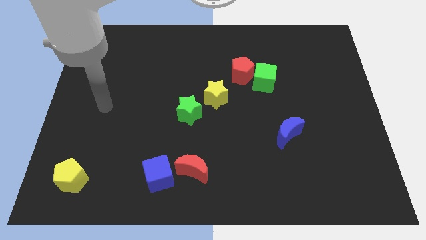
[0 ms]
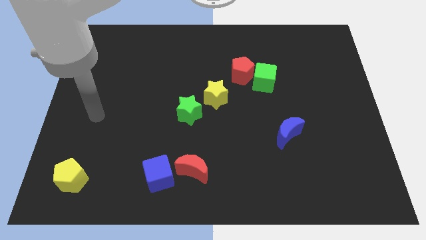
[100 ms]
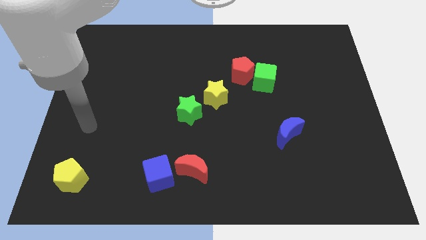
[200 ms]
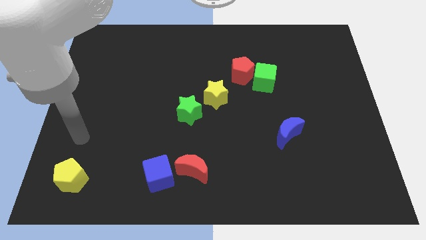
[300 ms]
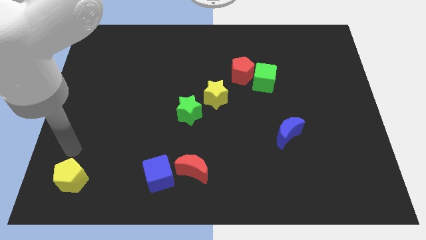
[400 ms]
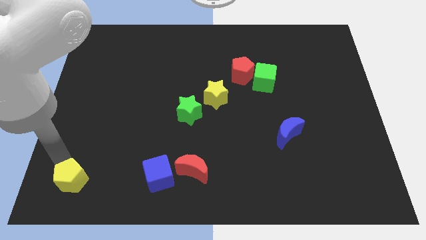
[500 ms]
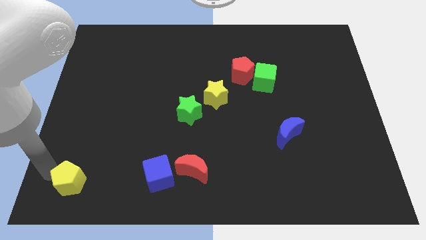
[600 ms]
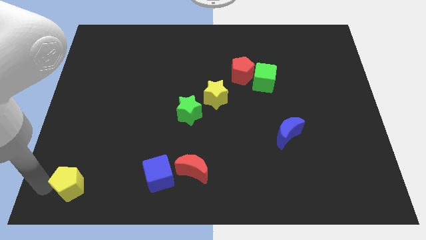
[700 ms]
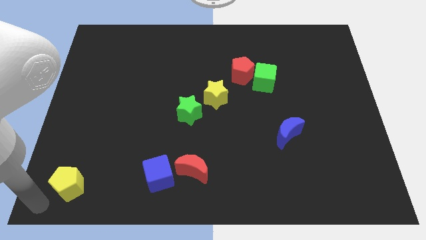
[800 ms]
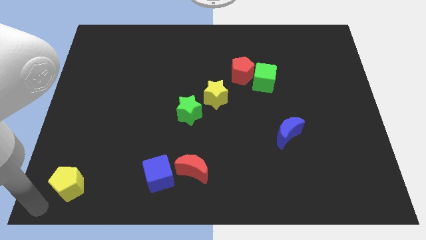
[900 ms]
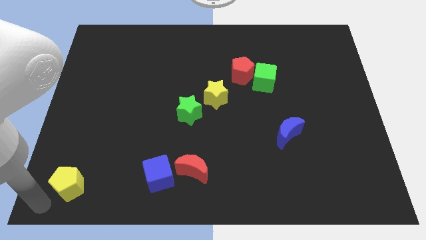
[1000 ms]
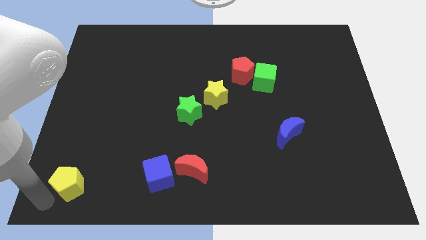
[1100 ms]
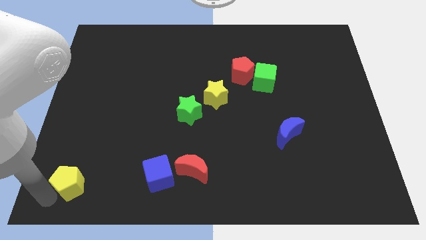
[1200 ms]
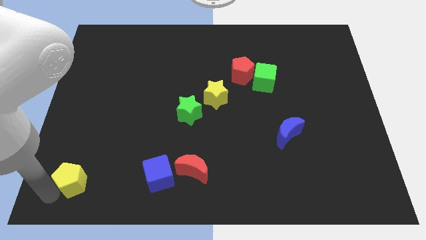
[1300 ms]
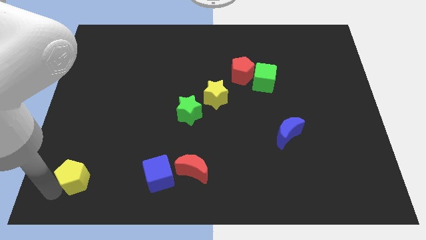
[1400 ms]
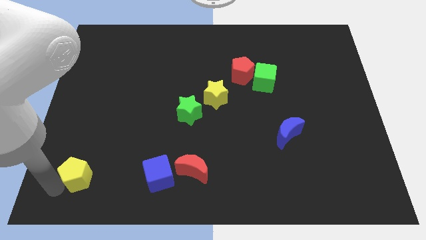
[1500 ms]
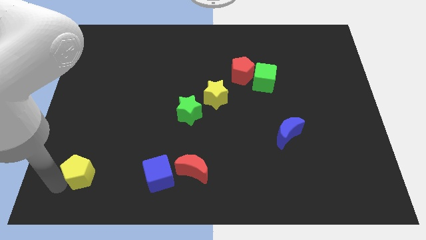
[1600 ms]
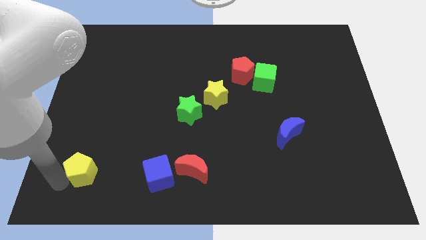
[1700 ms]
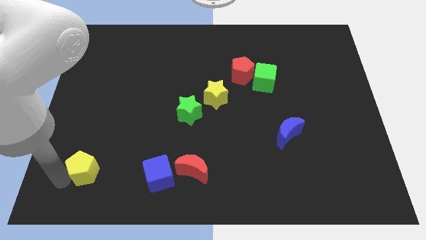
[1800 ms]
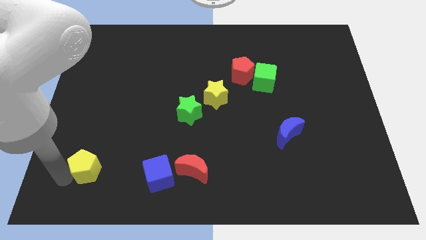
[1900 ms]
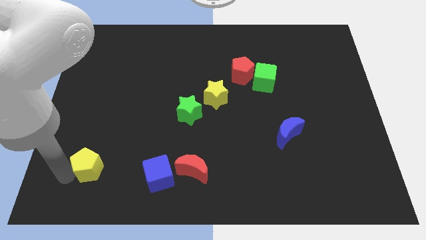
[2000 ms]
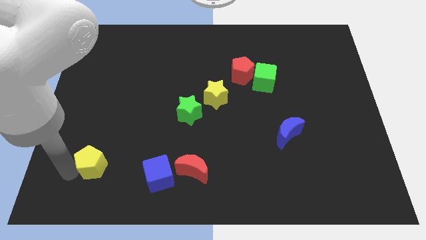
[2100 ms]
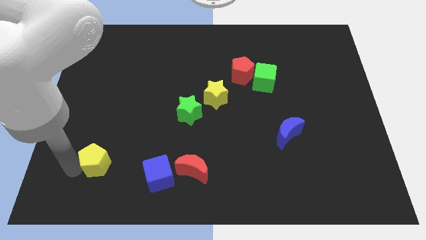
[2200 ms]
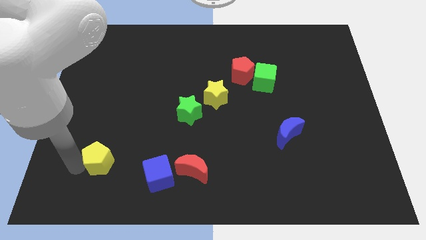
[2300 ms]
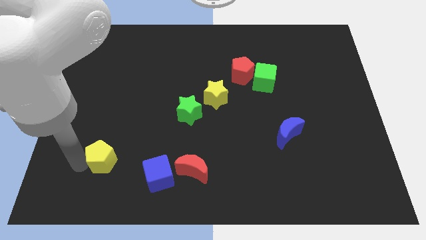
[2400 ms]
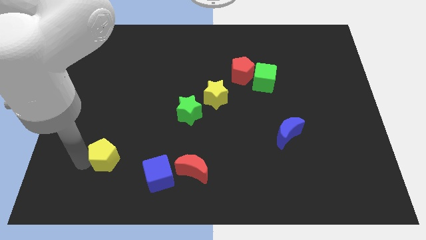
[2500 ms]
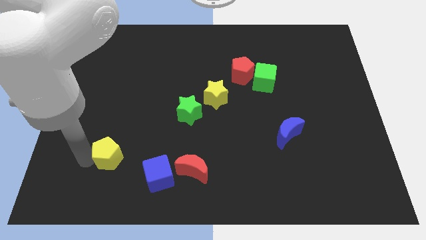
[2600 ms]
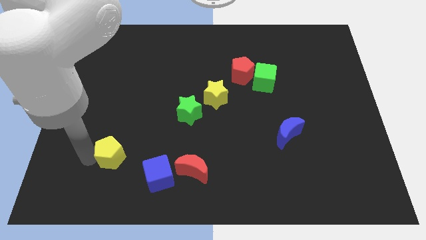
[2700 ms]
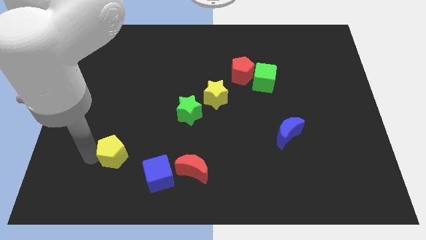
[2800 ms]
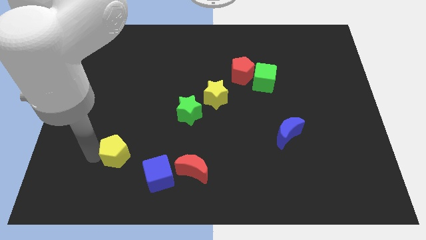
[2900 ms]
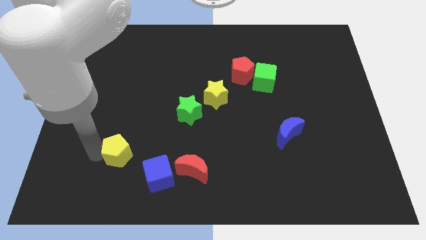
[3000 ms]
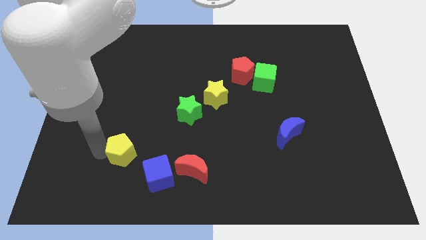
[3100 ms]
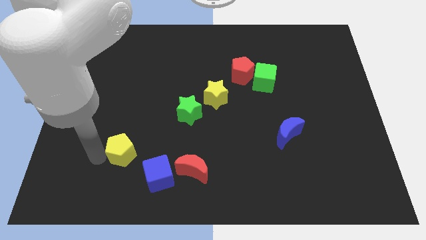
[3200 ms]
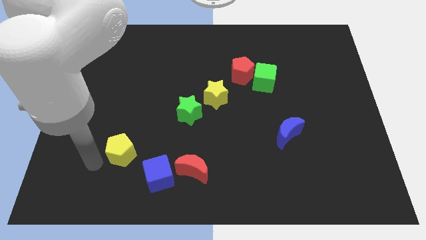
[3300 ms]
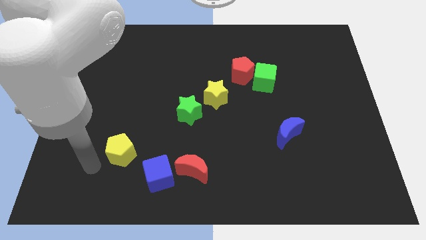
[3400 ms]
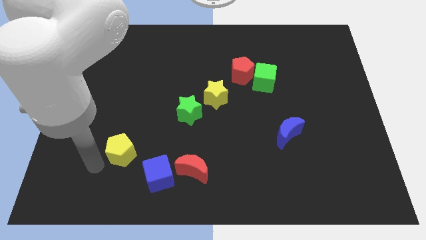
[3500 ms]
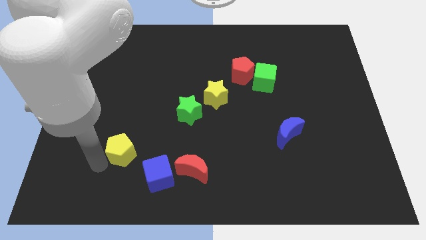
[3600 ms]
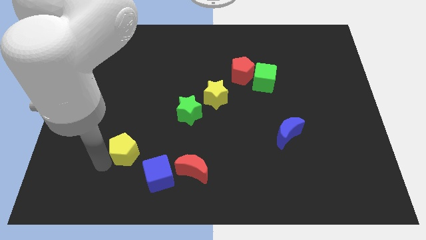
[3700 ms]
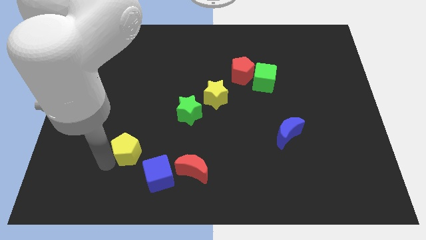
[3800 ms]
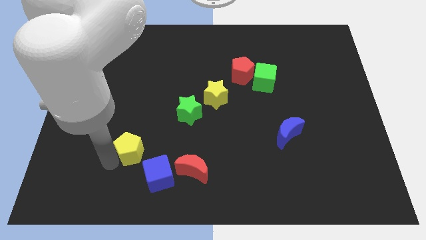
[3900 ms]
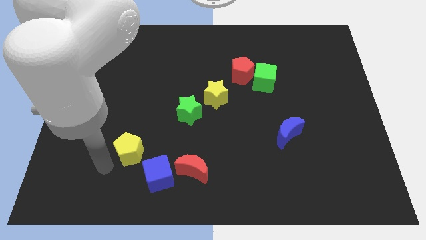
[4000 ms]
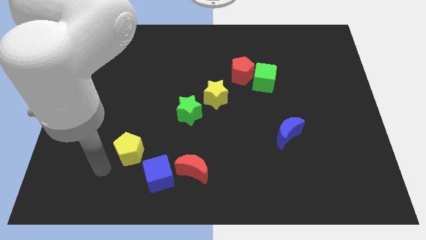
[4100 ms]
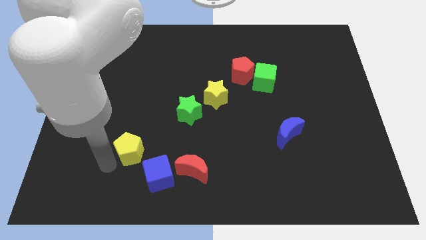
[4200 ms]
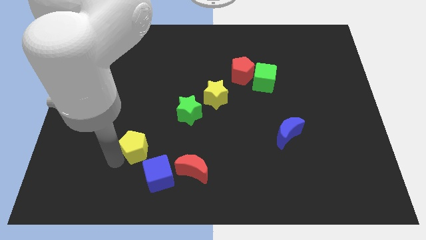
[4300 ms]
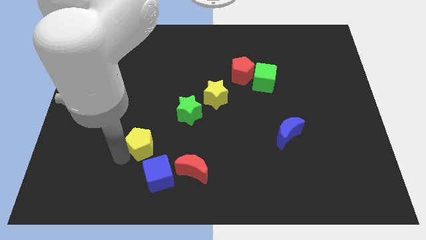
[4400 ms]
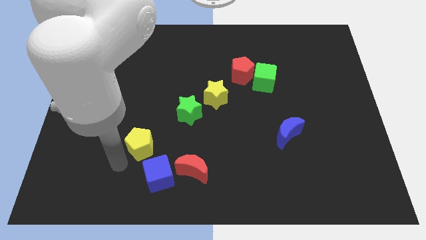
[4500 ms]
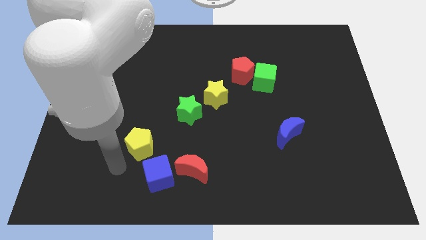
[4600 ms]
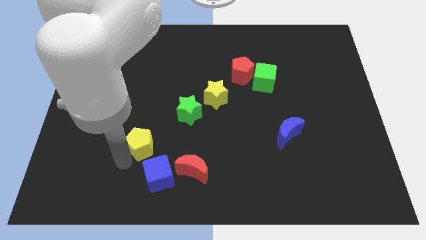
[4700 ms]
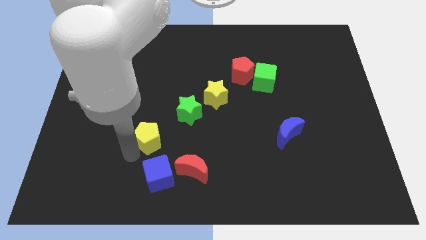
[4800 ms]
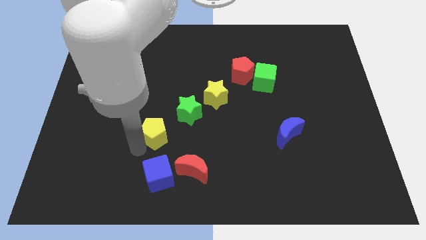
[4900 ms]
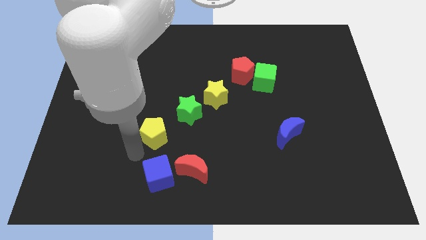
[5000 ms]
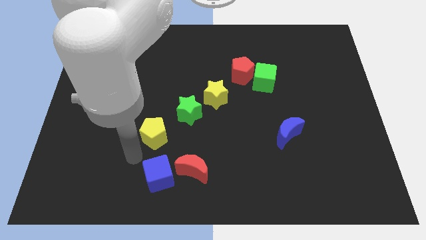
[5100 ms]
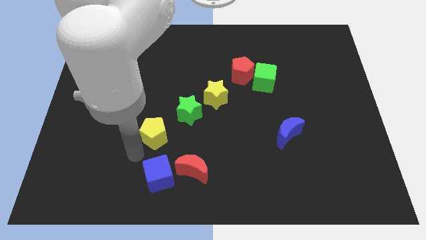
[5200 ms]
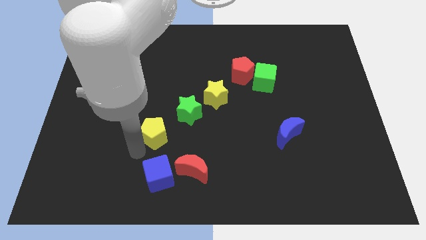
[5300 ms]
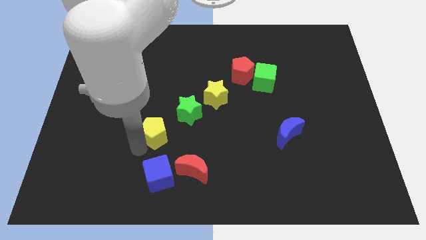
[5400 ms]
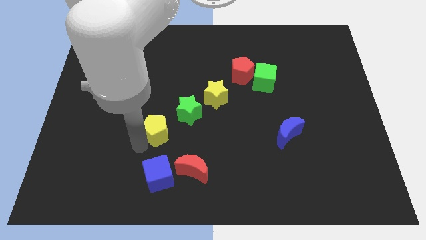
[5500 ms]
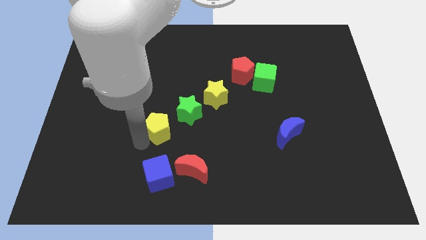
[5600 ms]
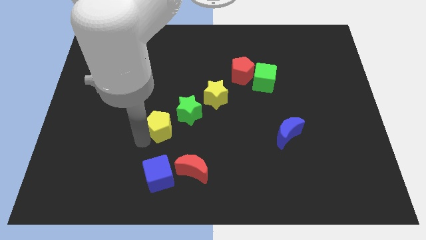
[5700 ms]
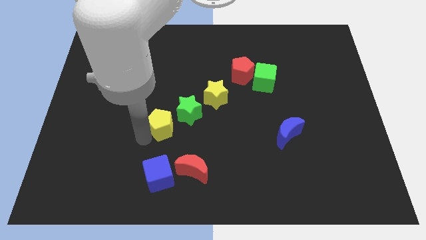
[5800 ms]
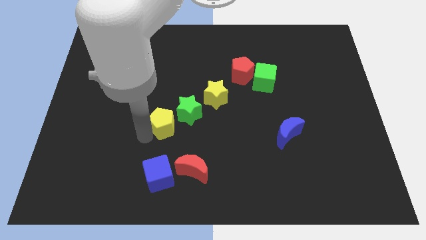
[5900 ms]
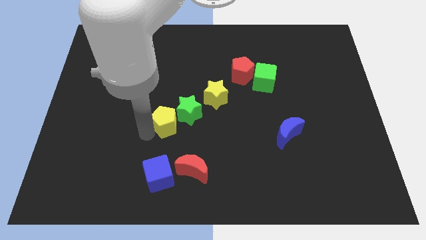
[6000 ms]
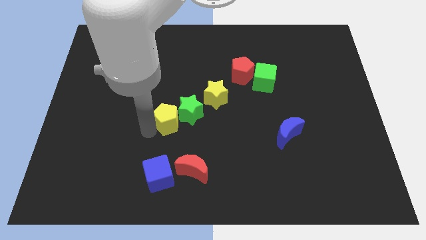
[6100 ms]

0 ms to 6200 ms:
move the yellow pentagon close to the green star
